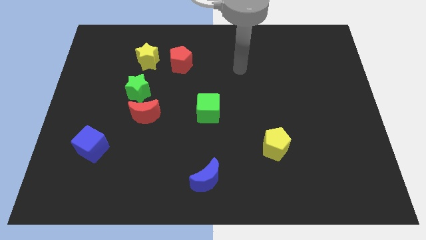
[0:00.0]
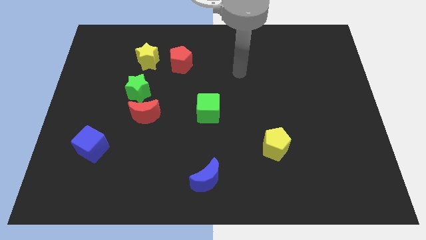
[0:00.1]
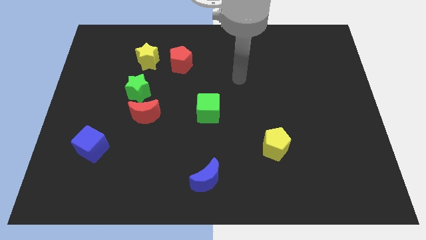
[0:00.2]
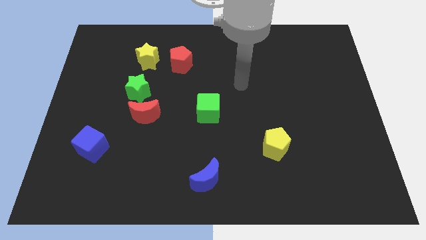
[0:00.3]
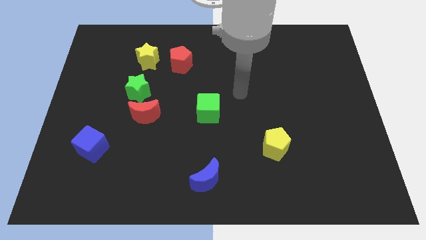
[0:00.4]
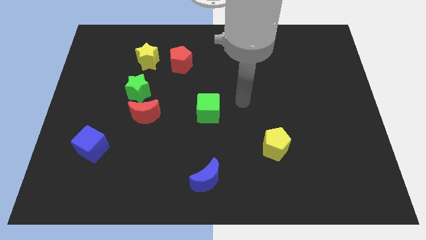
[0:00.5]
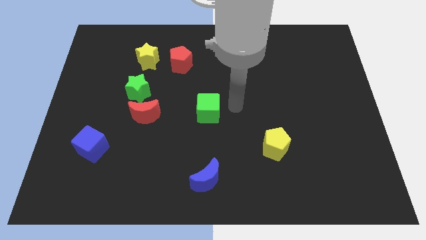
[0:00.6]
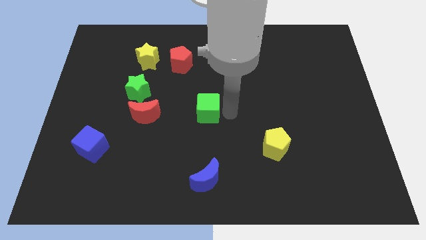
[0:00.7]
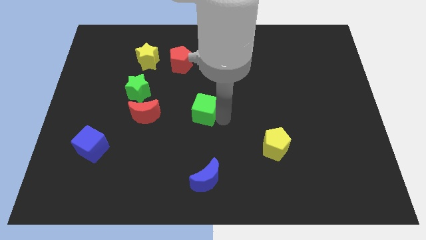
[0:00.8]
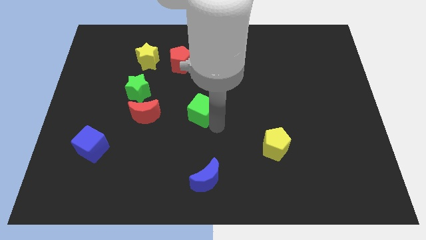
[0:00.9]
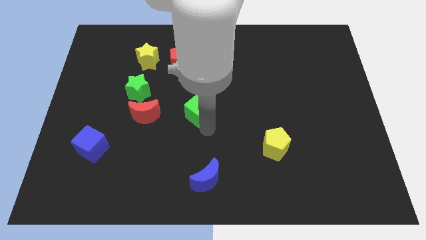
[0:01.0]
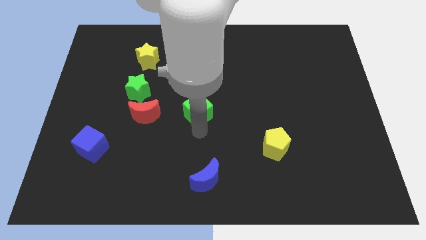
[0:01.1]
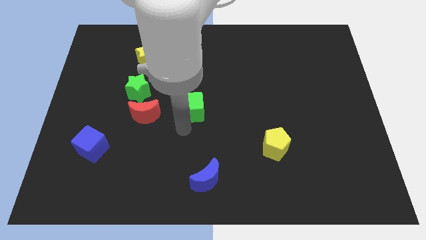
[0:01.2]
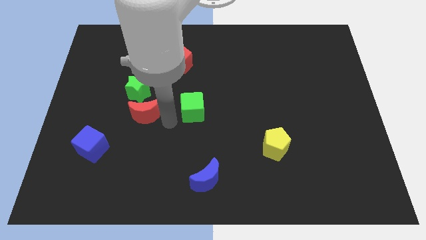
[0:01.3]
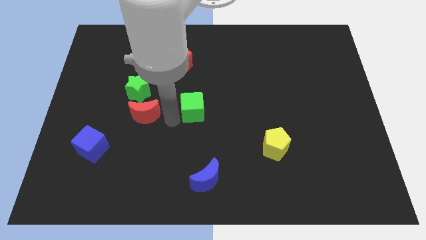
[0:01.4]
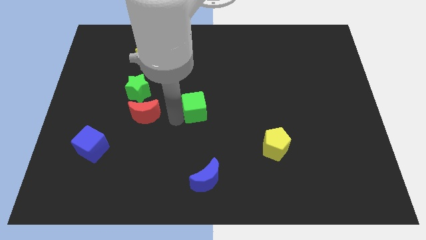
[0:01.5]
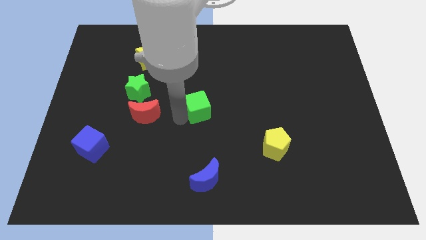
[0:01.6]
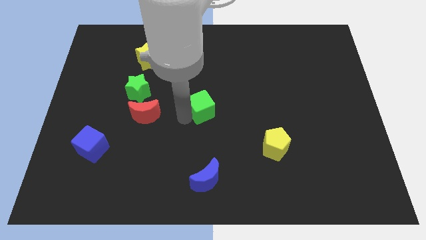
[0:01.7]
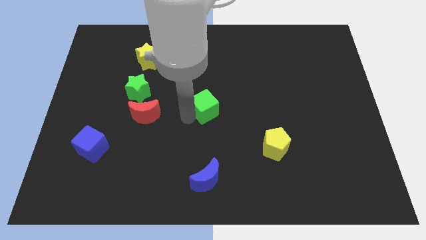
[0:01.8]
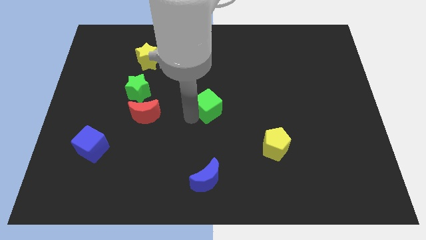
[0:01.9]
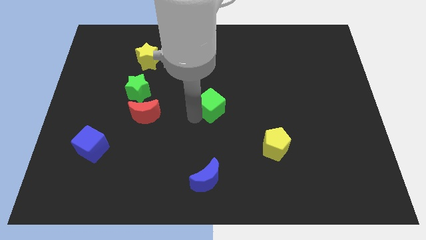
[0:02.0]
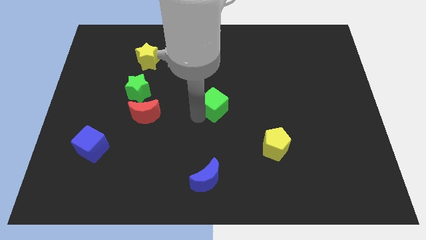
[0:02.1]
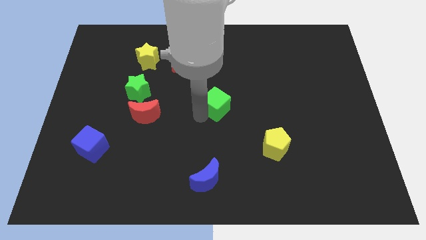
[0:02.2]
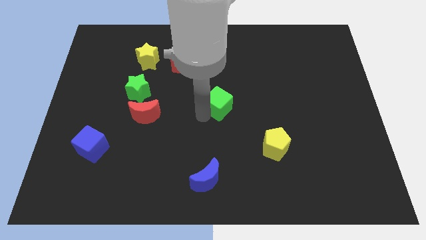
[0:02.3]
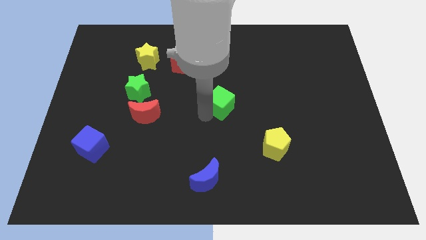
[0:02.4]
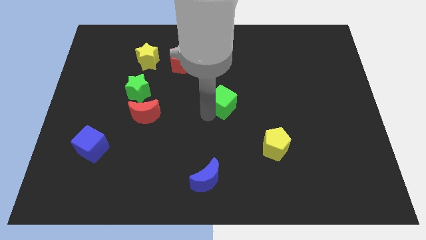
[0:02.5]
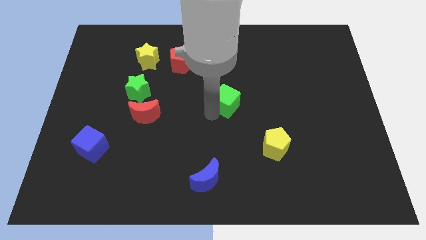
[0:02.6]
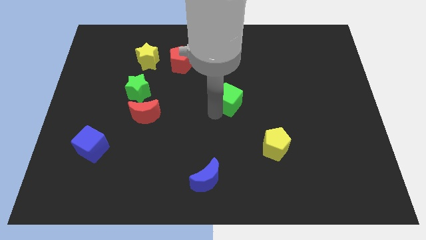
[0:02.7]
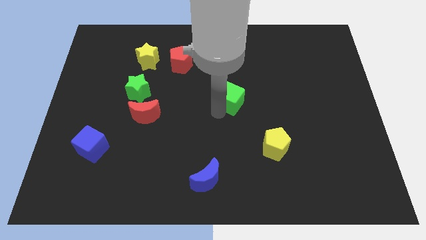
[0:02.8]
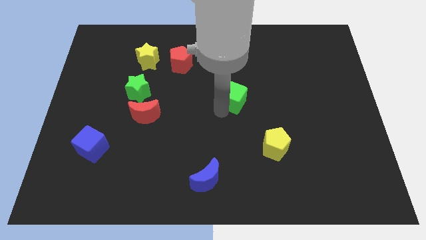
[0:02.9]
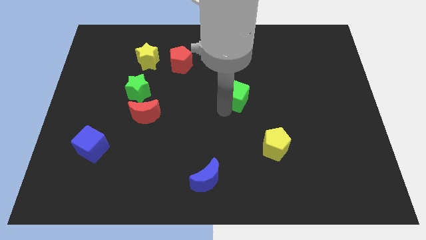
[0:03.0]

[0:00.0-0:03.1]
move the green cube somewhat diagonally up and to the right

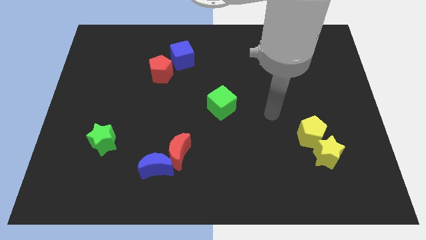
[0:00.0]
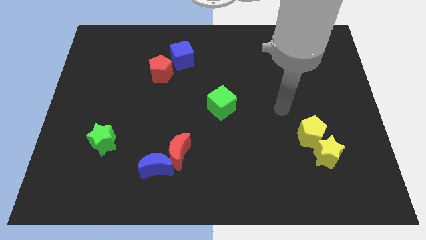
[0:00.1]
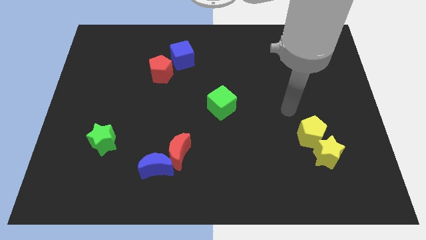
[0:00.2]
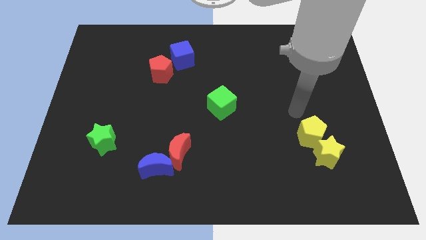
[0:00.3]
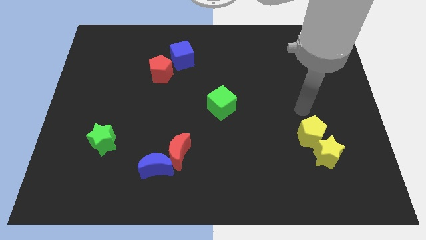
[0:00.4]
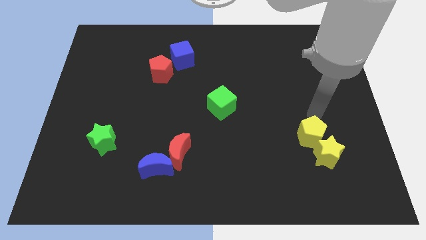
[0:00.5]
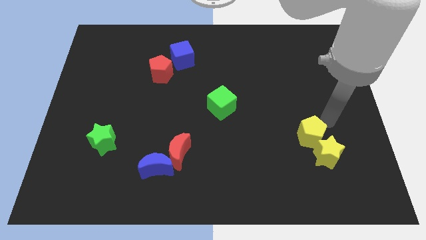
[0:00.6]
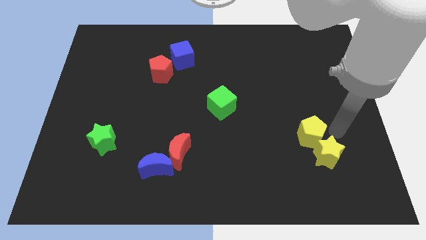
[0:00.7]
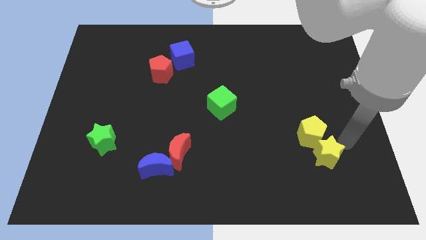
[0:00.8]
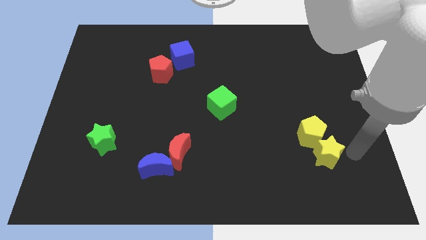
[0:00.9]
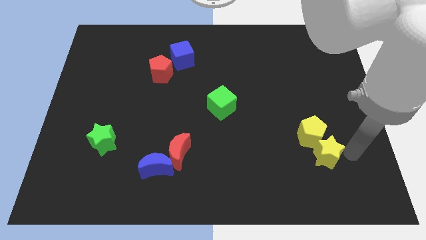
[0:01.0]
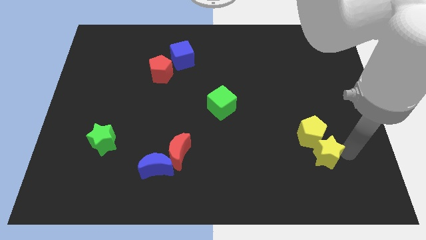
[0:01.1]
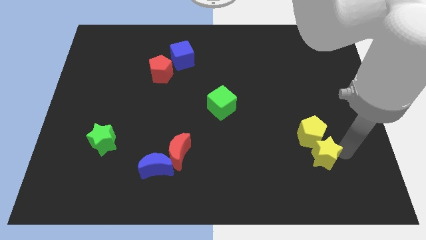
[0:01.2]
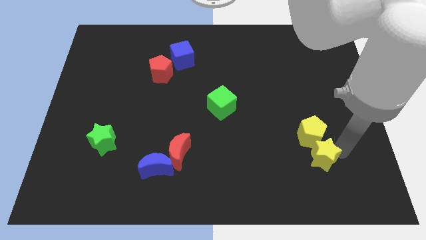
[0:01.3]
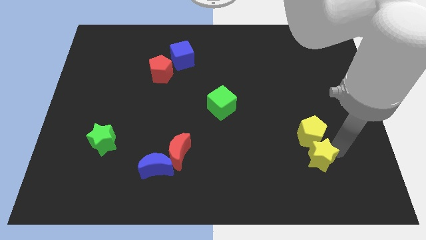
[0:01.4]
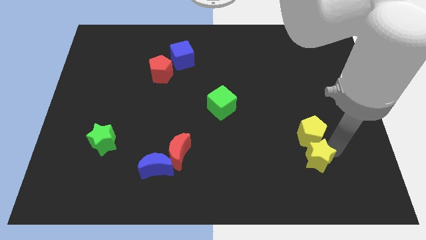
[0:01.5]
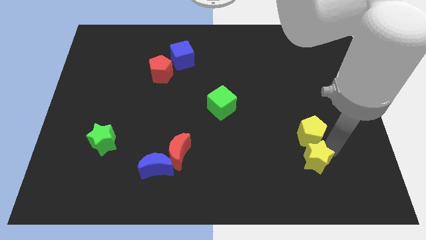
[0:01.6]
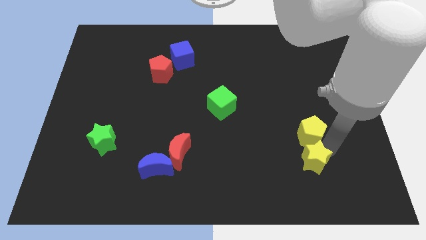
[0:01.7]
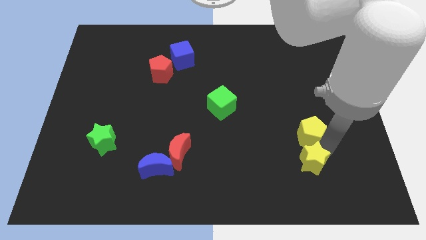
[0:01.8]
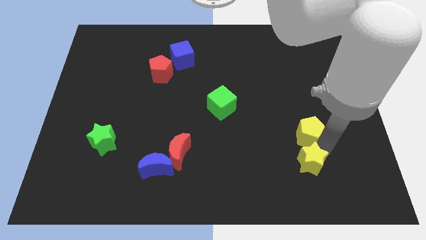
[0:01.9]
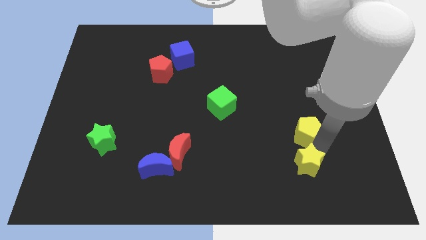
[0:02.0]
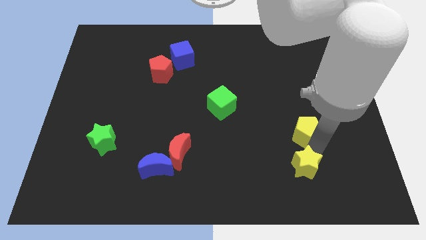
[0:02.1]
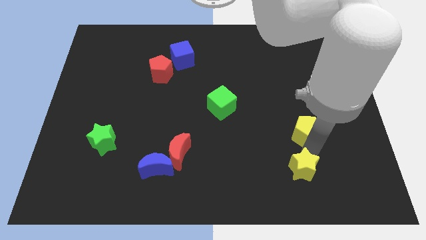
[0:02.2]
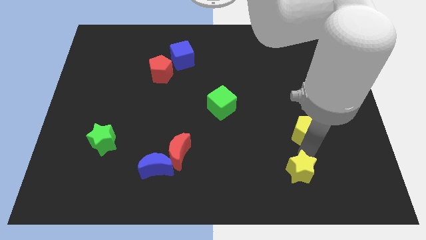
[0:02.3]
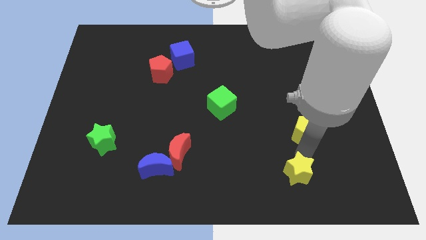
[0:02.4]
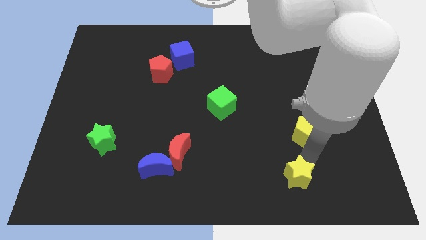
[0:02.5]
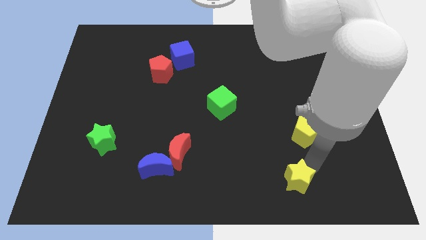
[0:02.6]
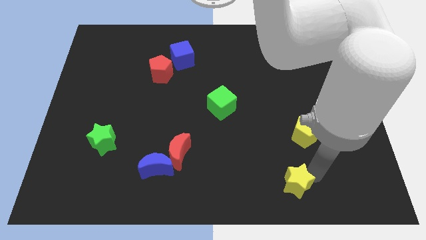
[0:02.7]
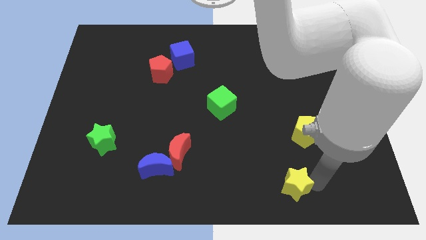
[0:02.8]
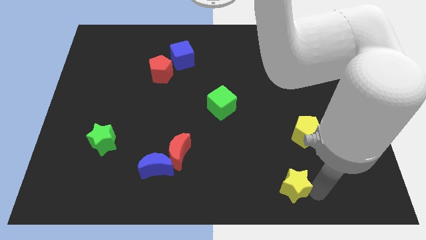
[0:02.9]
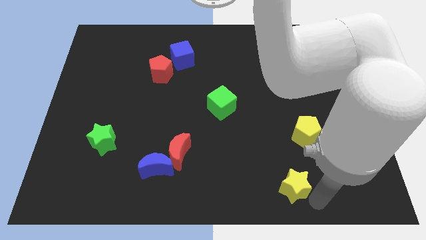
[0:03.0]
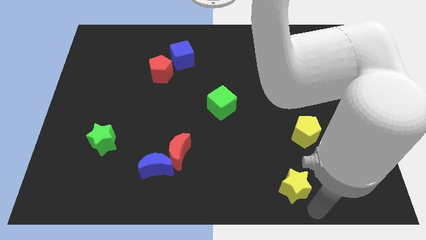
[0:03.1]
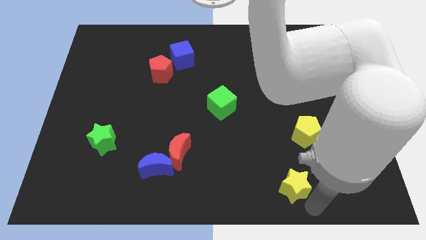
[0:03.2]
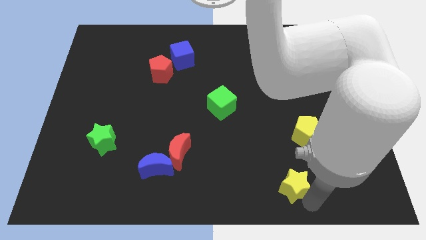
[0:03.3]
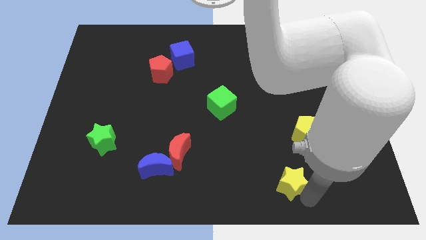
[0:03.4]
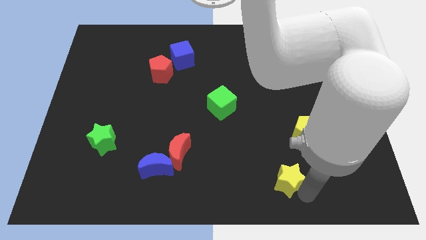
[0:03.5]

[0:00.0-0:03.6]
slightly push the yellow star left

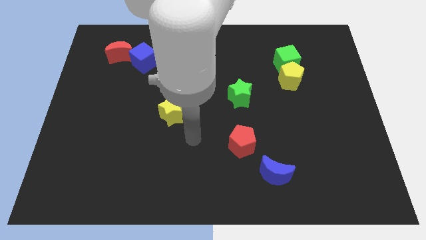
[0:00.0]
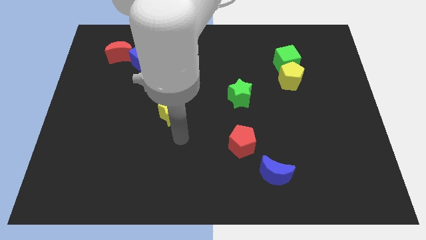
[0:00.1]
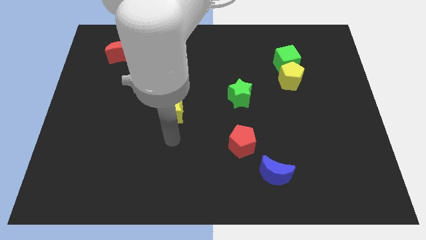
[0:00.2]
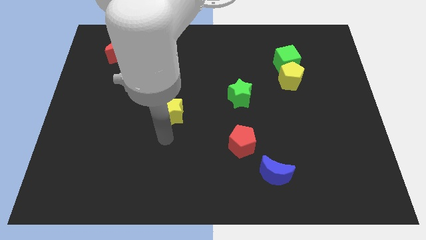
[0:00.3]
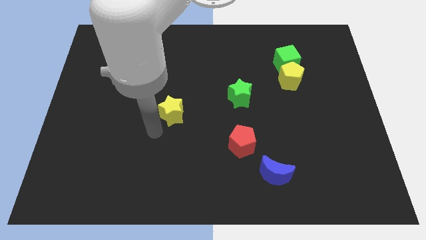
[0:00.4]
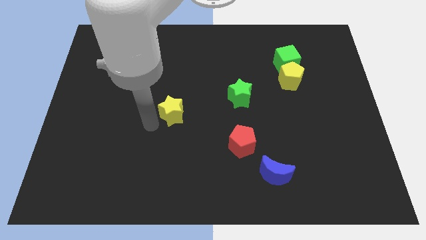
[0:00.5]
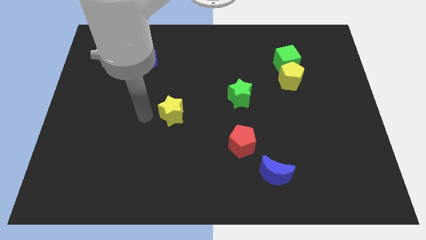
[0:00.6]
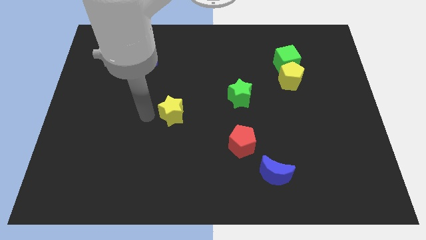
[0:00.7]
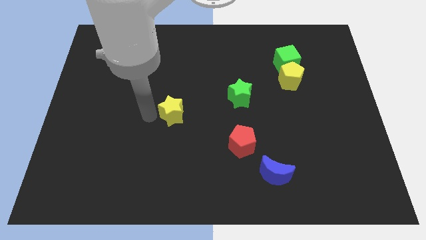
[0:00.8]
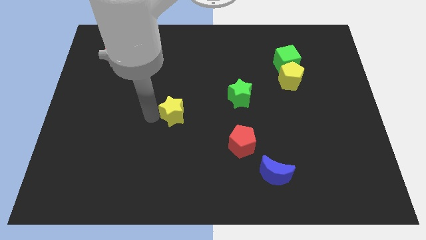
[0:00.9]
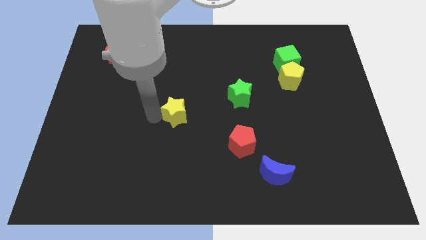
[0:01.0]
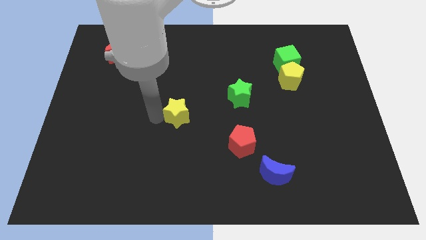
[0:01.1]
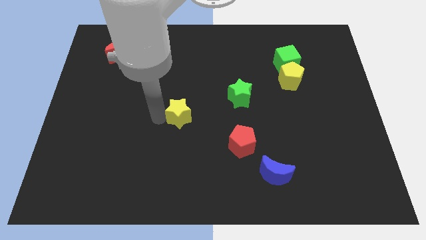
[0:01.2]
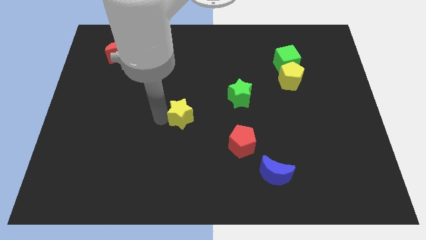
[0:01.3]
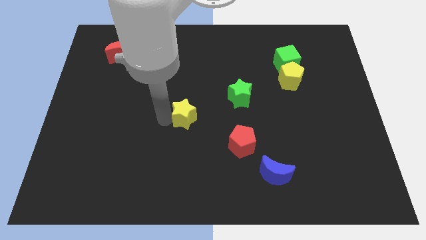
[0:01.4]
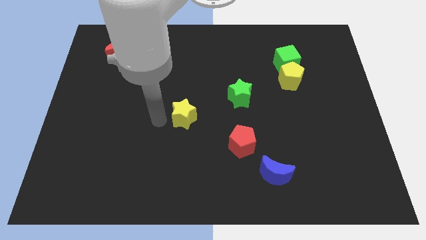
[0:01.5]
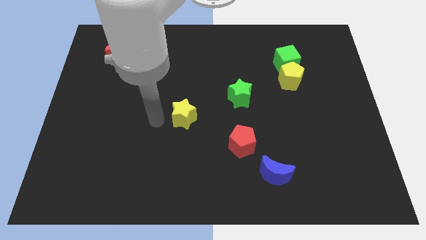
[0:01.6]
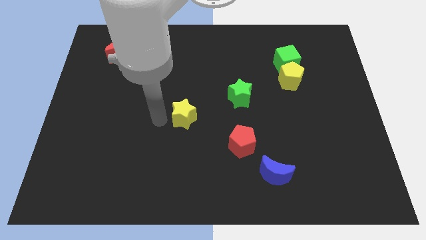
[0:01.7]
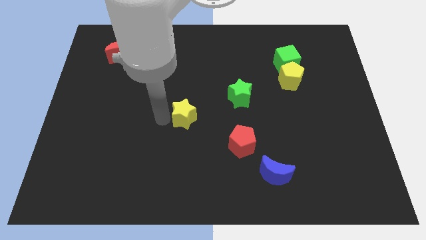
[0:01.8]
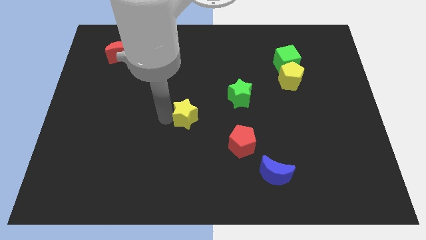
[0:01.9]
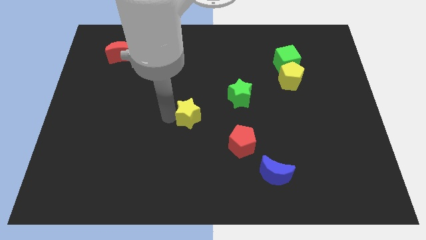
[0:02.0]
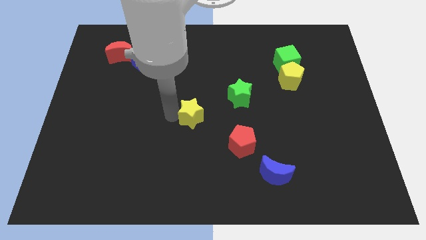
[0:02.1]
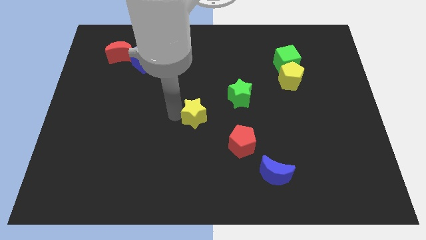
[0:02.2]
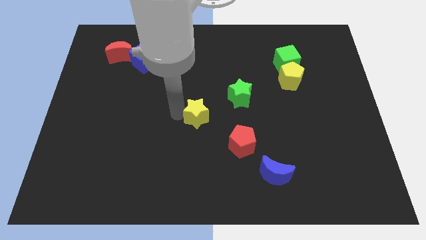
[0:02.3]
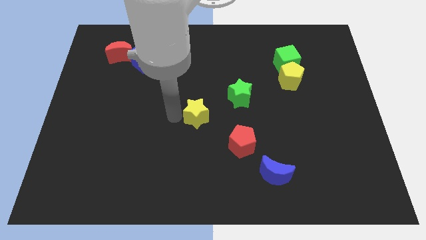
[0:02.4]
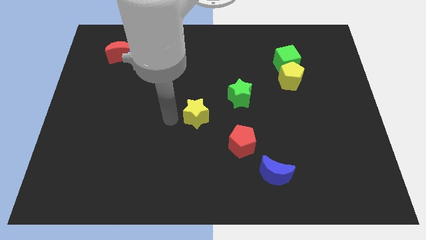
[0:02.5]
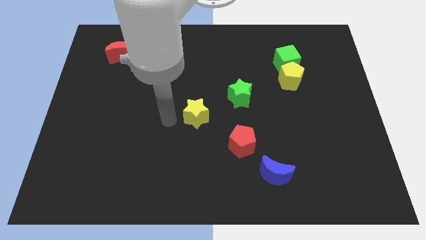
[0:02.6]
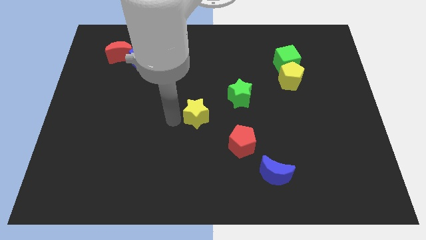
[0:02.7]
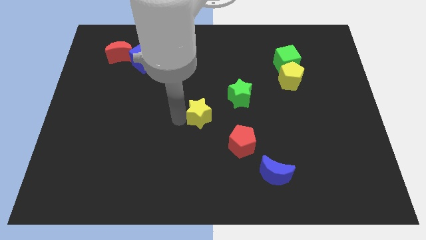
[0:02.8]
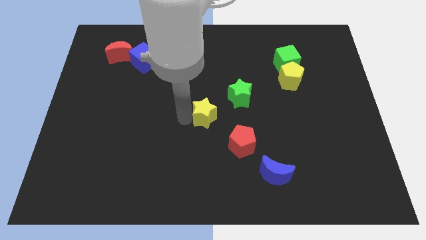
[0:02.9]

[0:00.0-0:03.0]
slightly push the yellow star right
